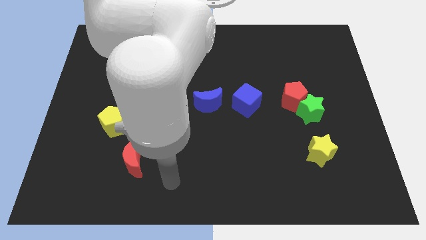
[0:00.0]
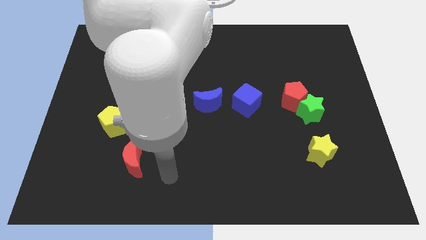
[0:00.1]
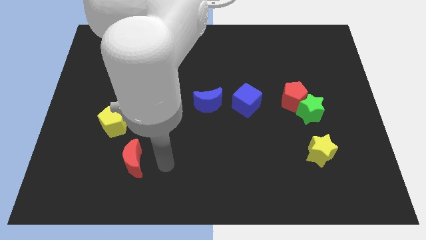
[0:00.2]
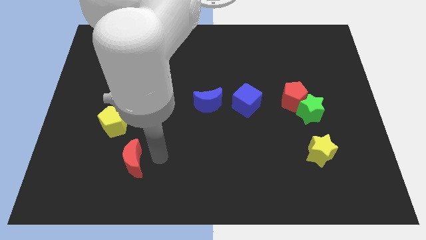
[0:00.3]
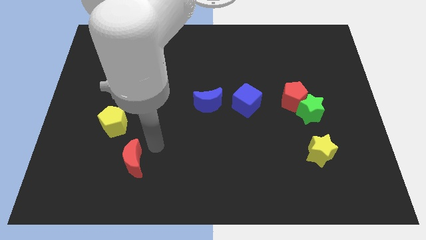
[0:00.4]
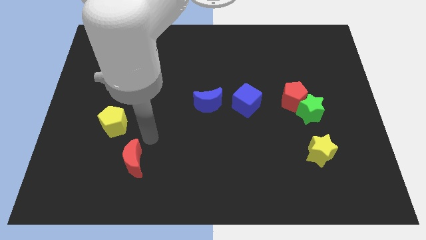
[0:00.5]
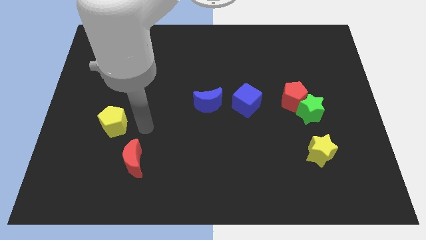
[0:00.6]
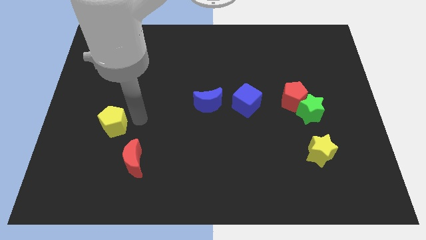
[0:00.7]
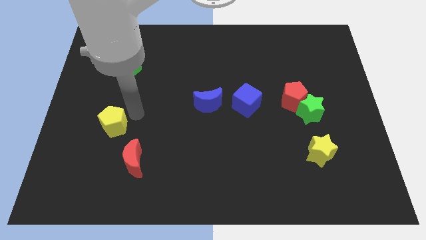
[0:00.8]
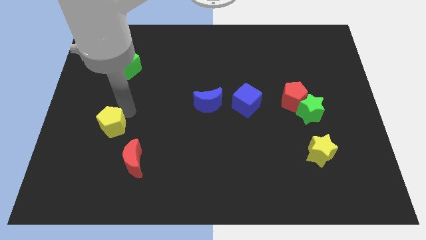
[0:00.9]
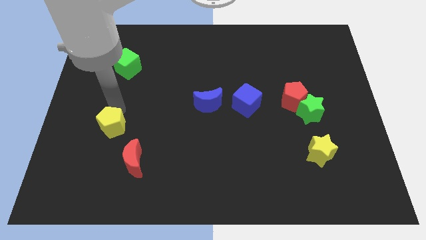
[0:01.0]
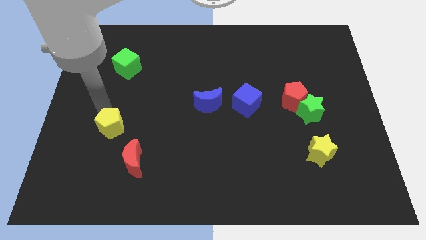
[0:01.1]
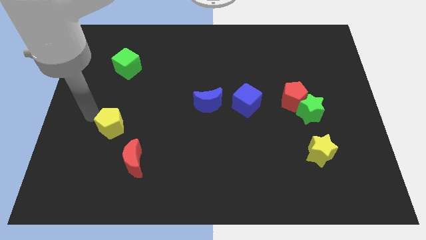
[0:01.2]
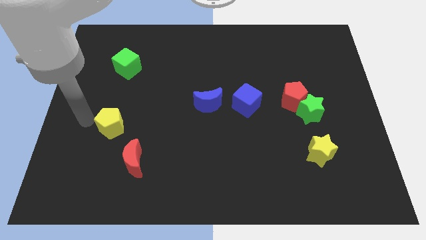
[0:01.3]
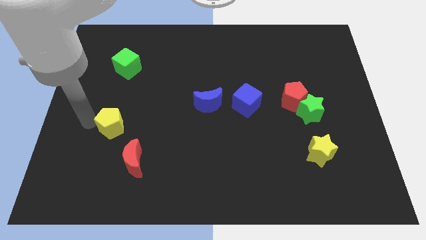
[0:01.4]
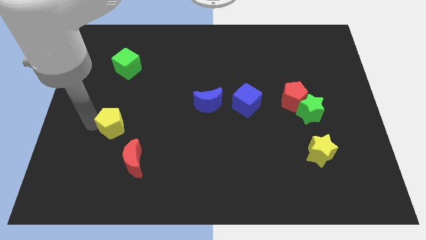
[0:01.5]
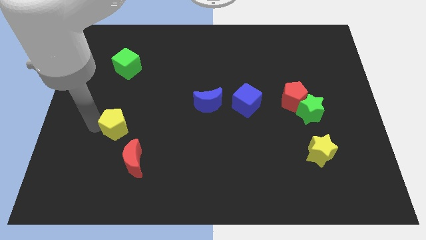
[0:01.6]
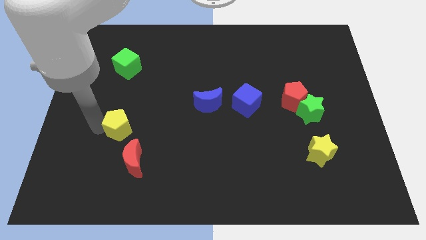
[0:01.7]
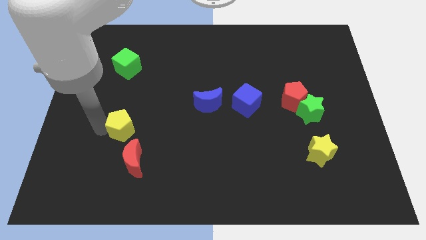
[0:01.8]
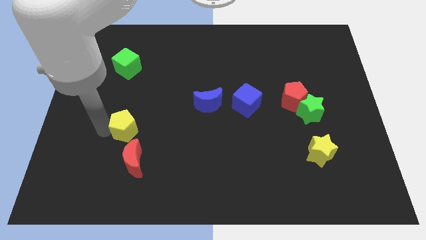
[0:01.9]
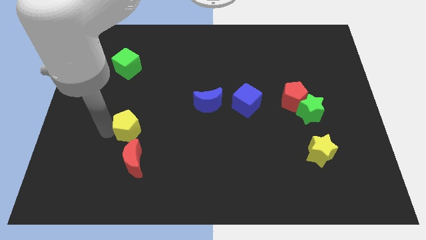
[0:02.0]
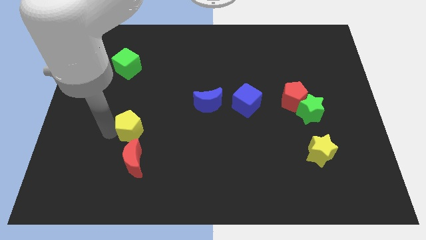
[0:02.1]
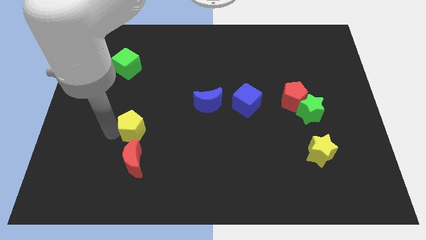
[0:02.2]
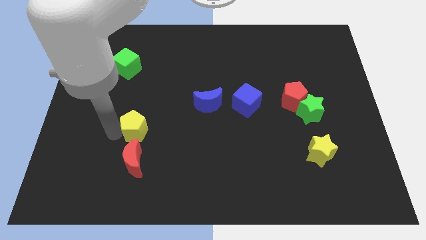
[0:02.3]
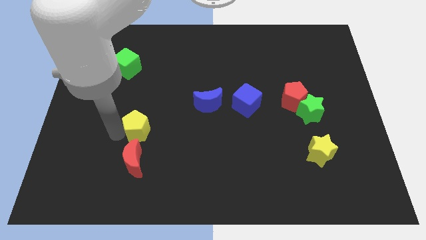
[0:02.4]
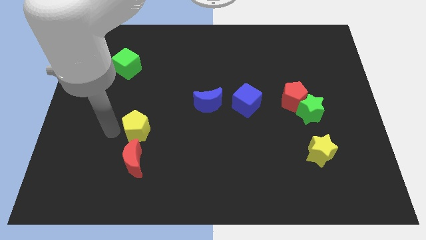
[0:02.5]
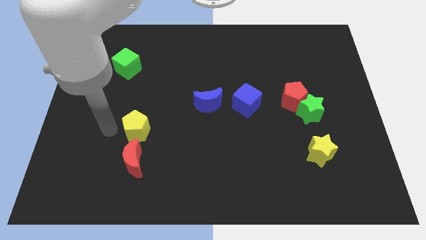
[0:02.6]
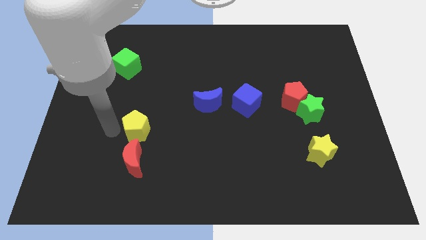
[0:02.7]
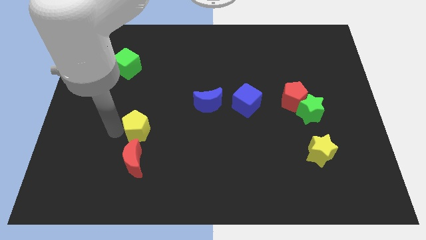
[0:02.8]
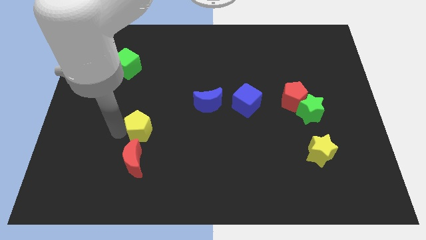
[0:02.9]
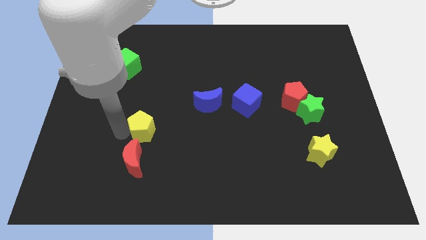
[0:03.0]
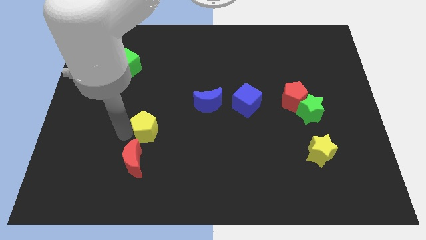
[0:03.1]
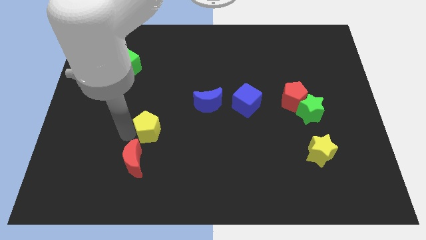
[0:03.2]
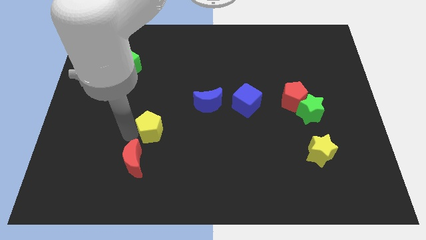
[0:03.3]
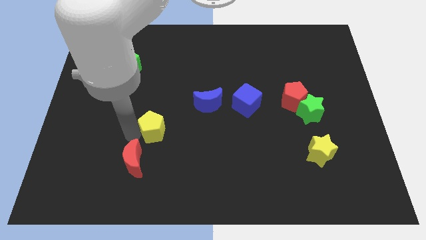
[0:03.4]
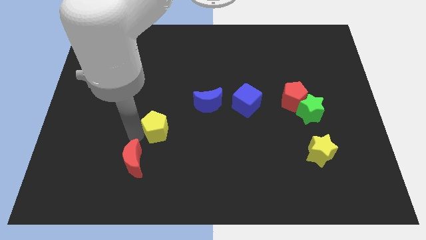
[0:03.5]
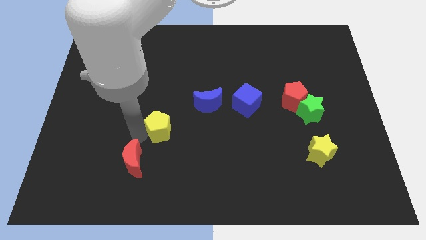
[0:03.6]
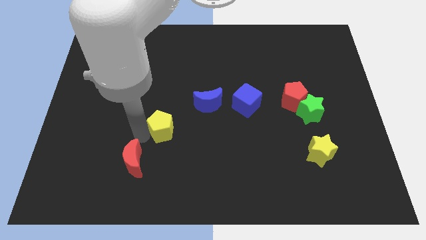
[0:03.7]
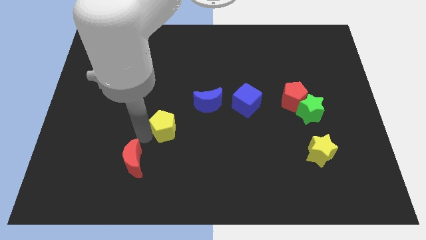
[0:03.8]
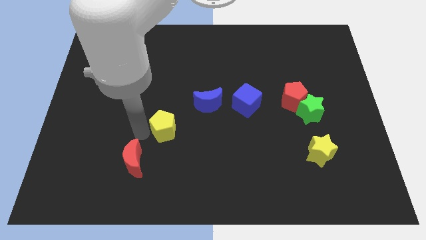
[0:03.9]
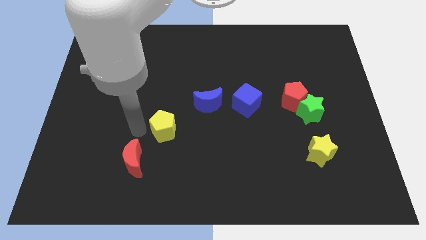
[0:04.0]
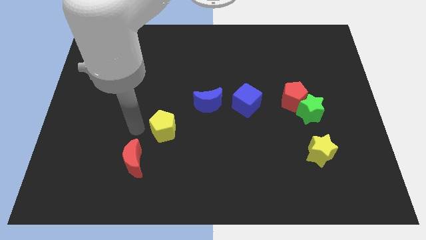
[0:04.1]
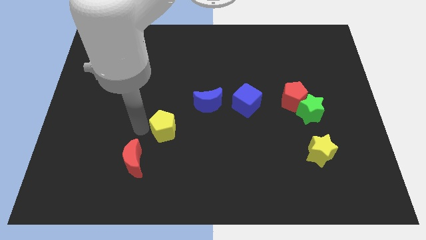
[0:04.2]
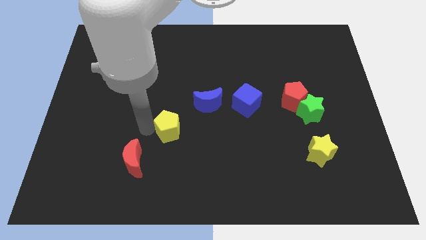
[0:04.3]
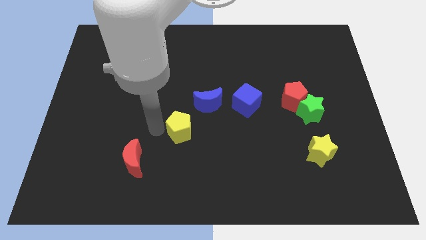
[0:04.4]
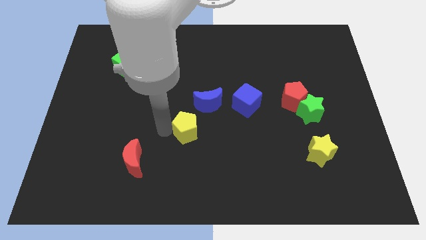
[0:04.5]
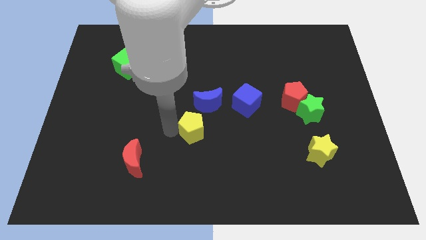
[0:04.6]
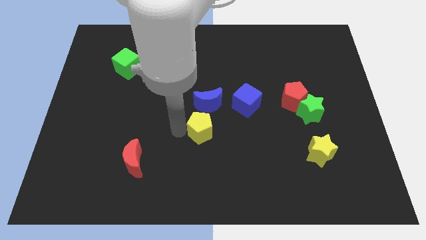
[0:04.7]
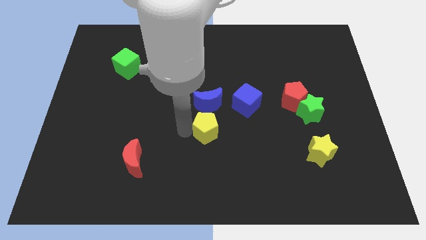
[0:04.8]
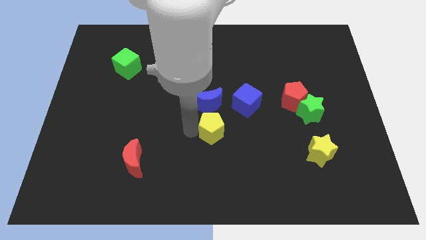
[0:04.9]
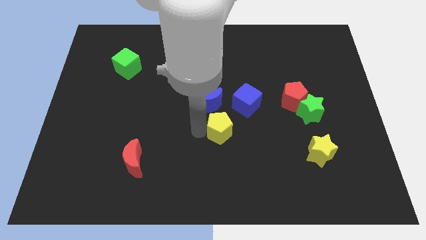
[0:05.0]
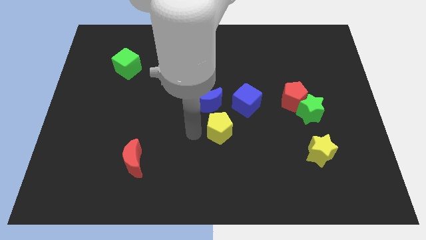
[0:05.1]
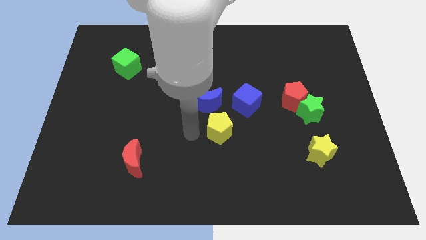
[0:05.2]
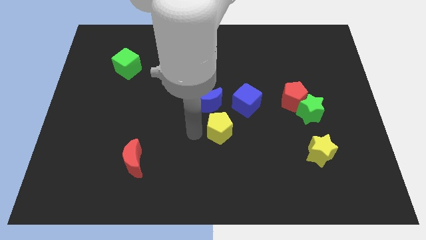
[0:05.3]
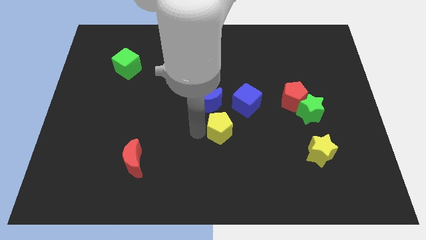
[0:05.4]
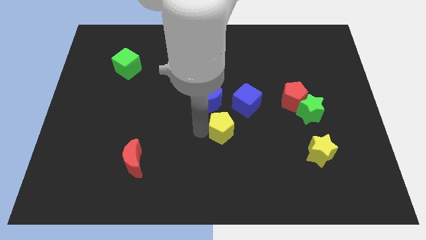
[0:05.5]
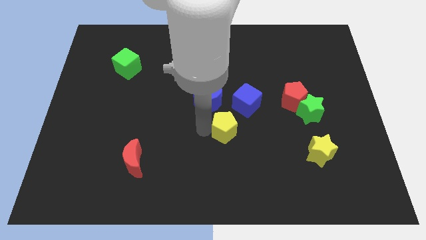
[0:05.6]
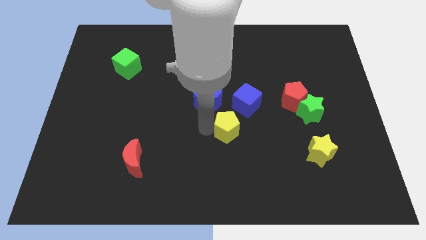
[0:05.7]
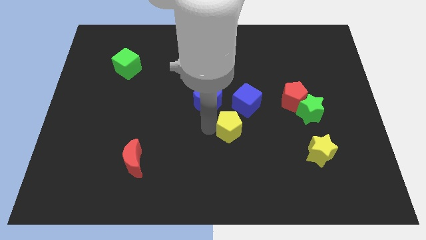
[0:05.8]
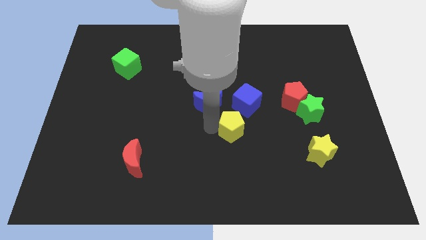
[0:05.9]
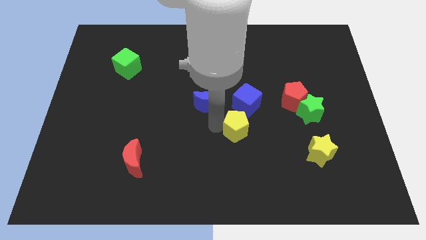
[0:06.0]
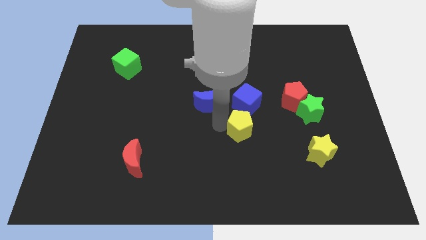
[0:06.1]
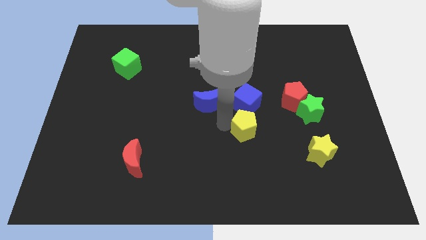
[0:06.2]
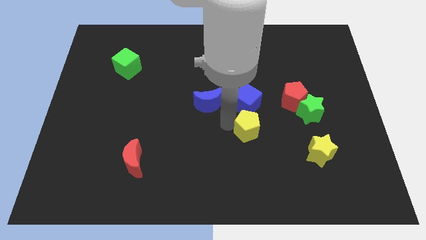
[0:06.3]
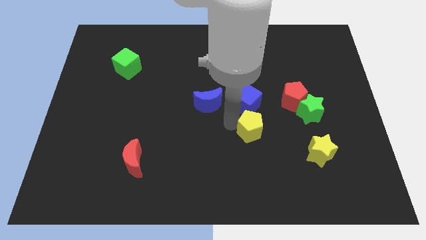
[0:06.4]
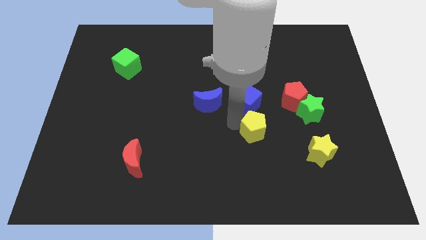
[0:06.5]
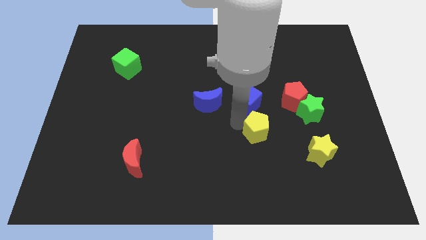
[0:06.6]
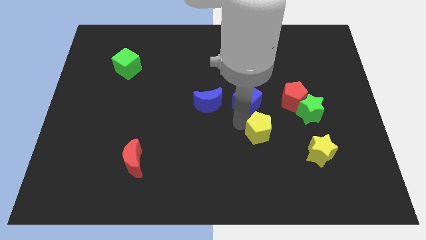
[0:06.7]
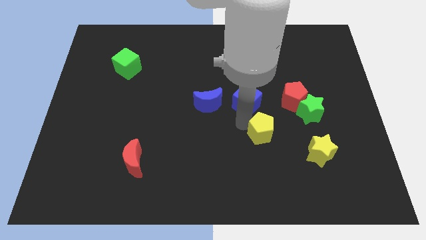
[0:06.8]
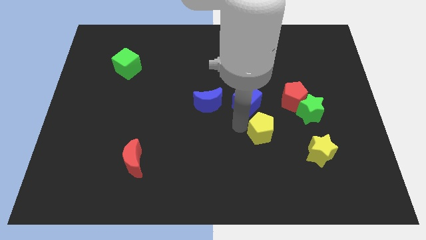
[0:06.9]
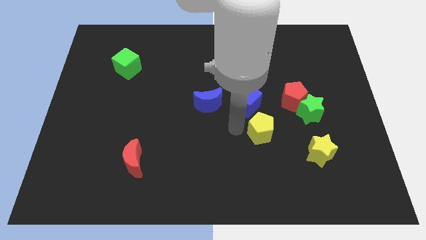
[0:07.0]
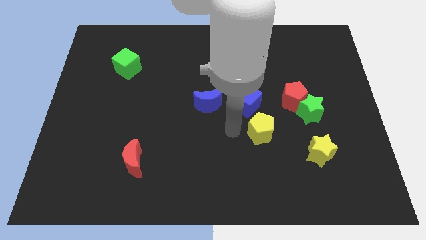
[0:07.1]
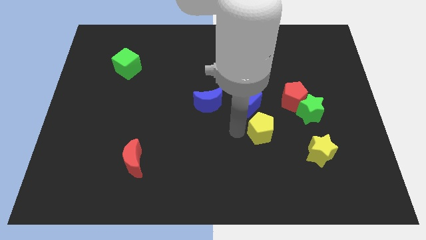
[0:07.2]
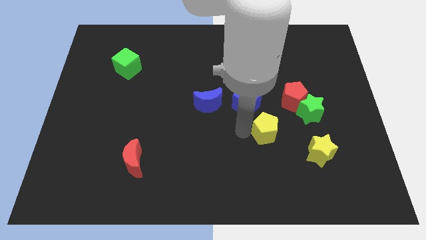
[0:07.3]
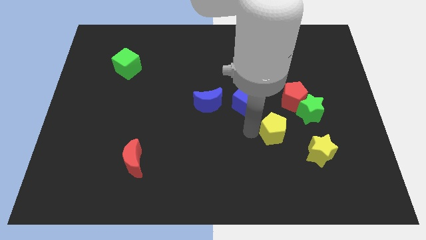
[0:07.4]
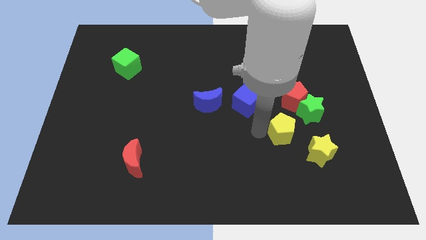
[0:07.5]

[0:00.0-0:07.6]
put the yellow pentagon to the bottom side of the red pentagon
